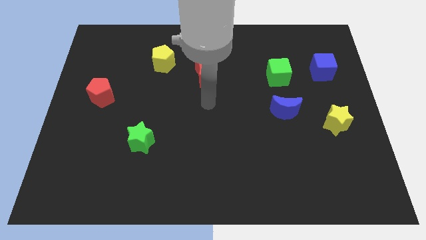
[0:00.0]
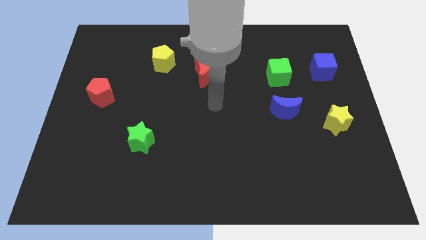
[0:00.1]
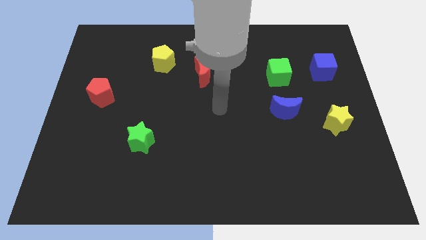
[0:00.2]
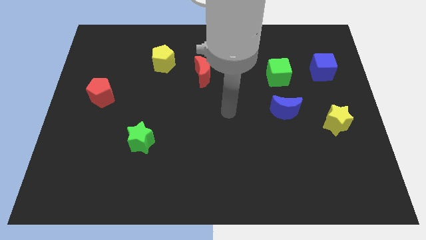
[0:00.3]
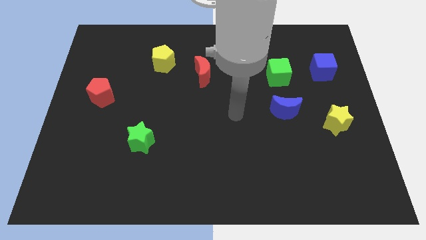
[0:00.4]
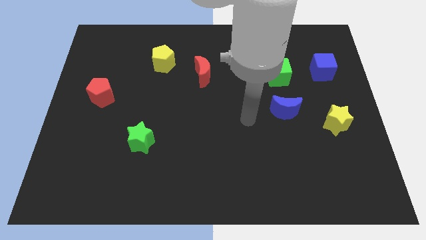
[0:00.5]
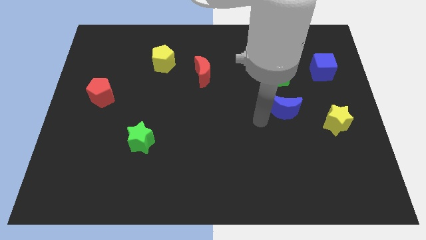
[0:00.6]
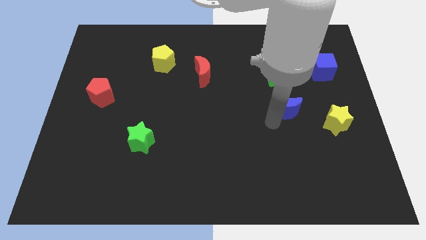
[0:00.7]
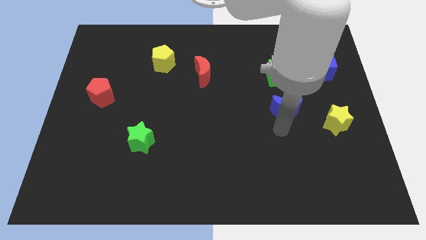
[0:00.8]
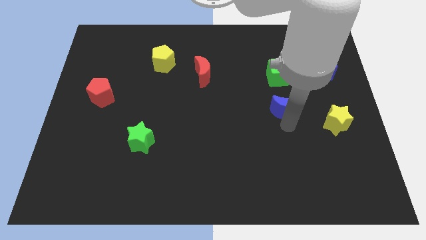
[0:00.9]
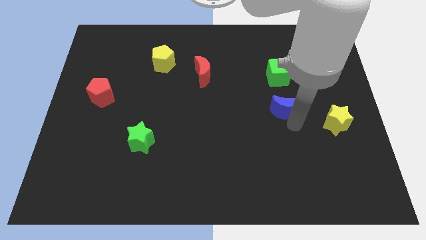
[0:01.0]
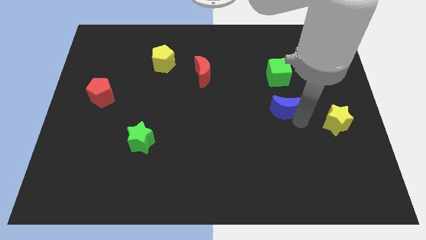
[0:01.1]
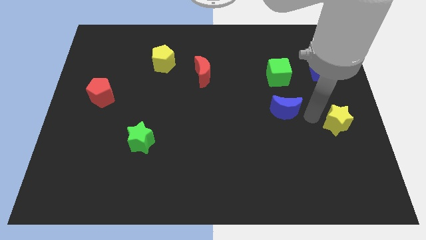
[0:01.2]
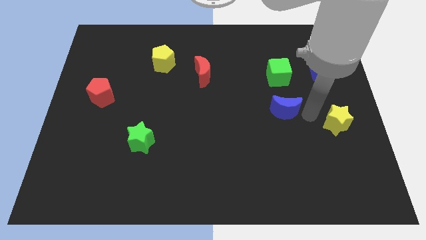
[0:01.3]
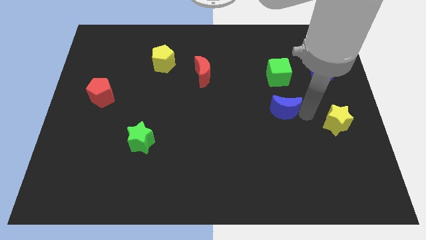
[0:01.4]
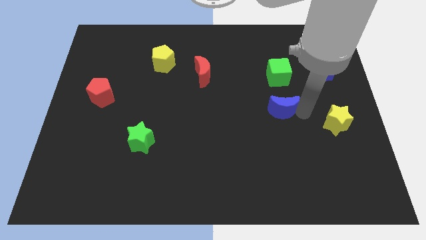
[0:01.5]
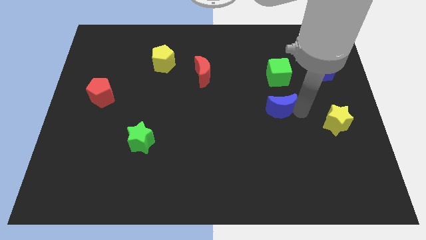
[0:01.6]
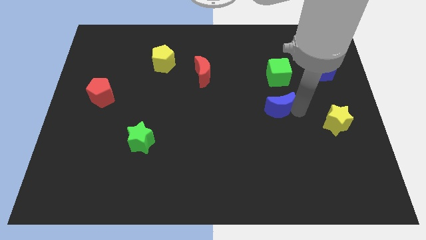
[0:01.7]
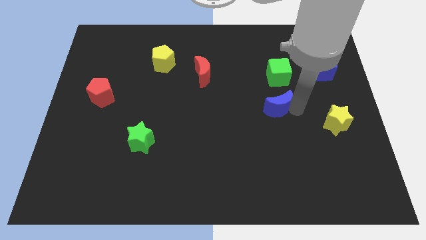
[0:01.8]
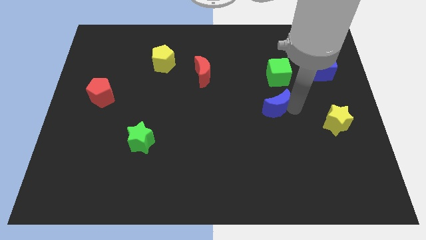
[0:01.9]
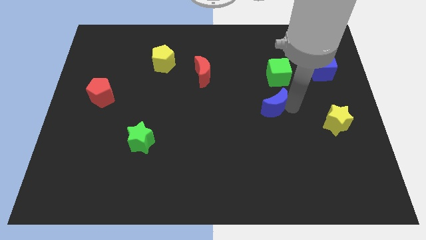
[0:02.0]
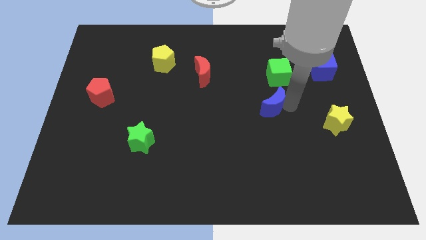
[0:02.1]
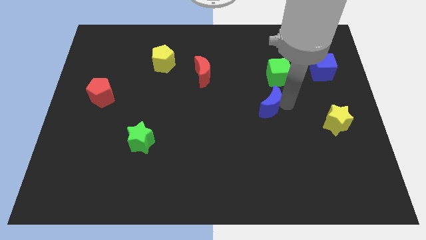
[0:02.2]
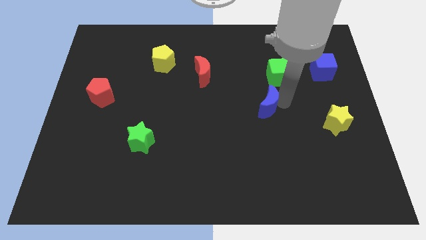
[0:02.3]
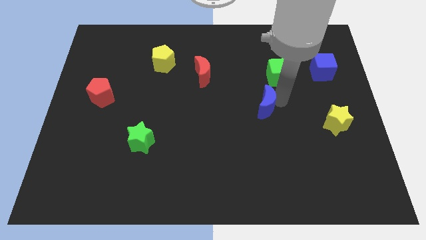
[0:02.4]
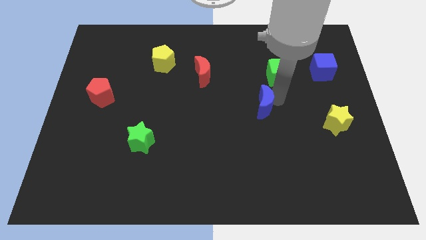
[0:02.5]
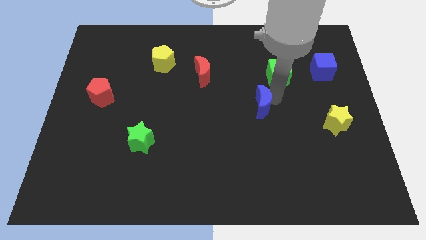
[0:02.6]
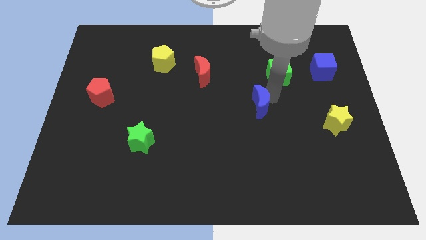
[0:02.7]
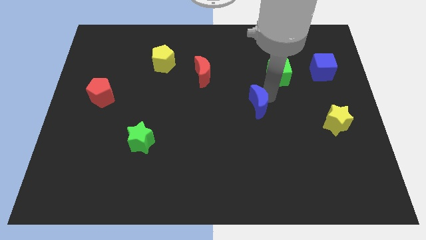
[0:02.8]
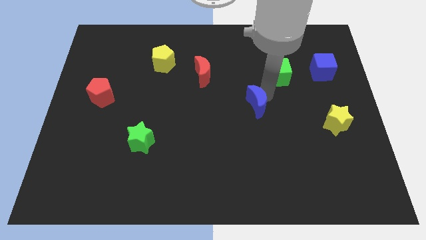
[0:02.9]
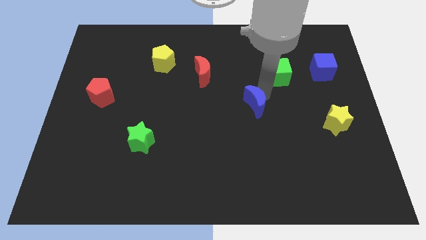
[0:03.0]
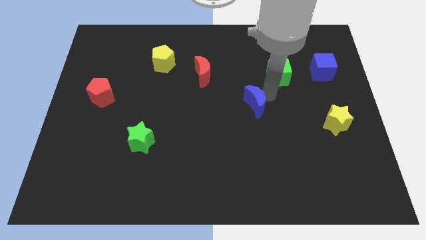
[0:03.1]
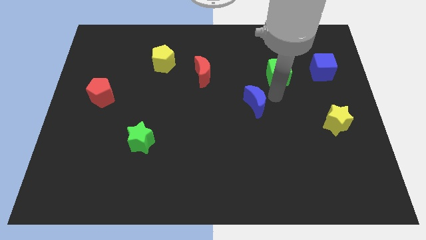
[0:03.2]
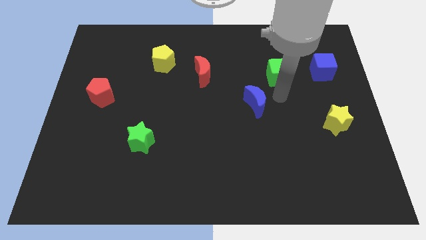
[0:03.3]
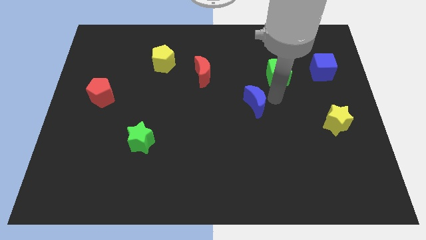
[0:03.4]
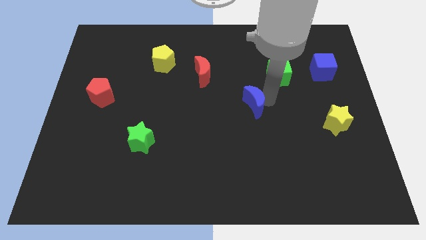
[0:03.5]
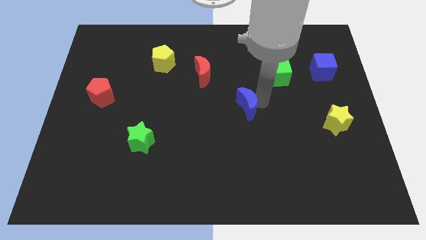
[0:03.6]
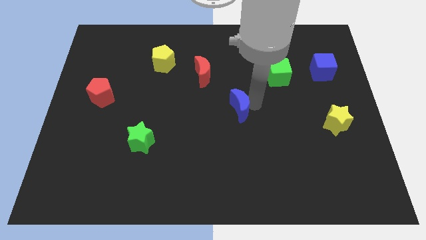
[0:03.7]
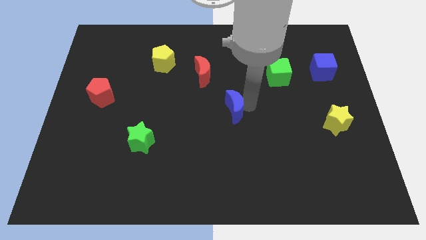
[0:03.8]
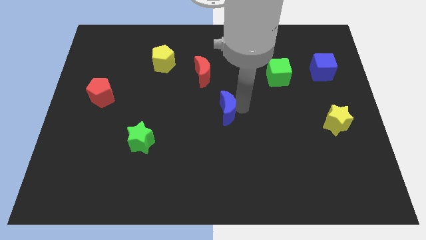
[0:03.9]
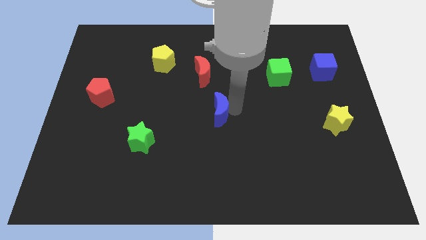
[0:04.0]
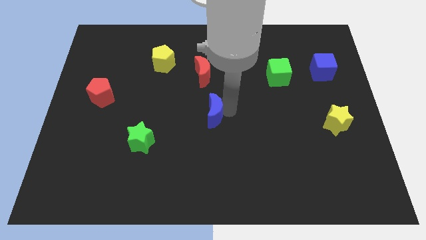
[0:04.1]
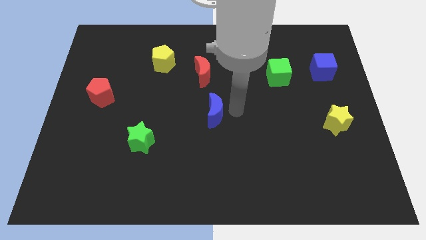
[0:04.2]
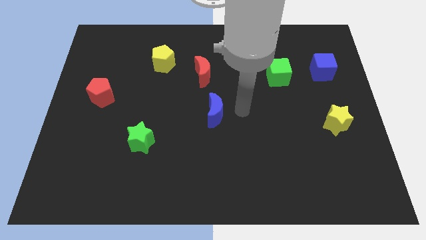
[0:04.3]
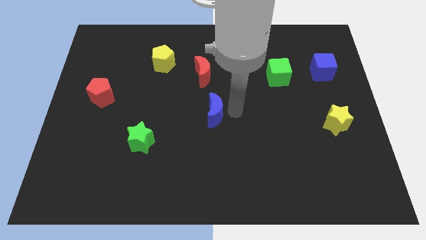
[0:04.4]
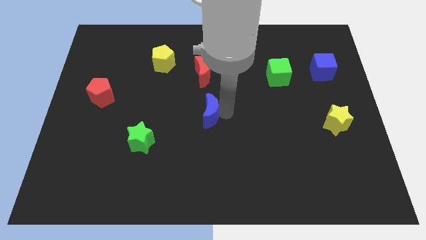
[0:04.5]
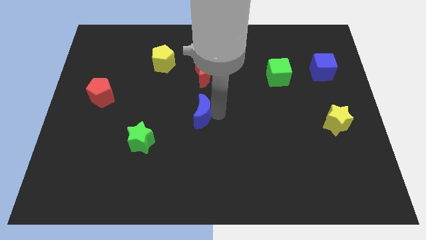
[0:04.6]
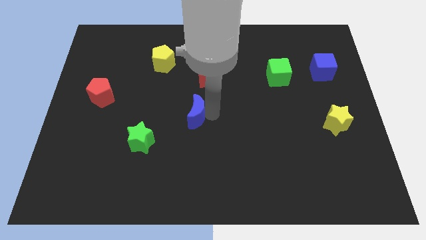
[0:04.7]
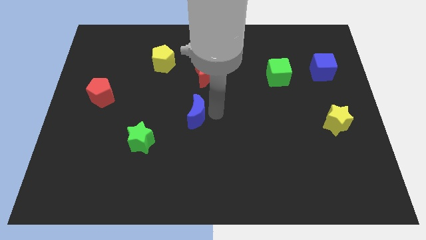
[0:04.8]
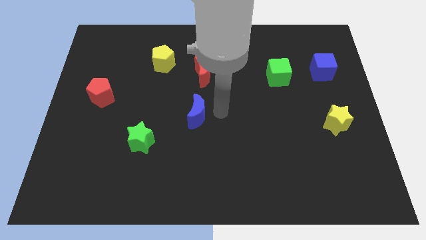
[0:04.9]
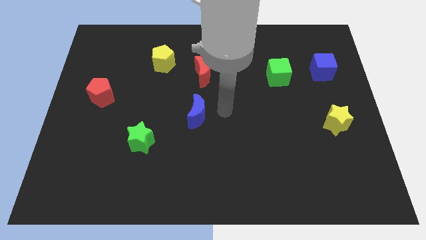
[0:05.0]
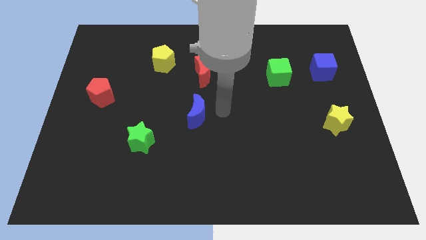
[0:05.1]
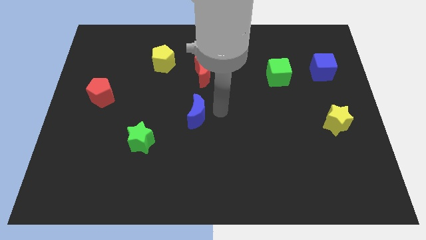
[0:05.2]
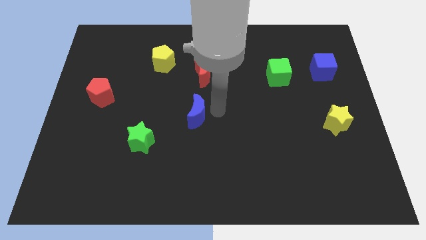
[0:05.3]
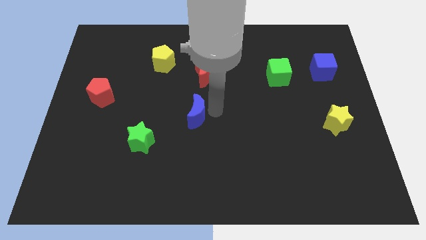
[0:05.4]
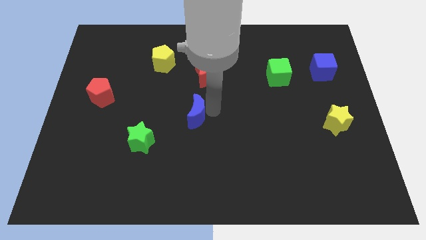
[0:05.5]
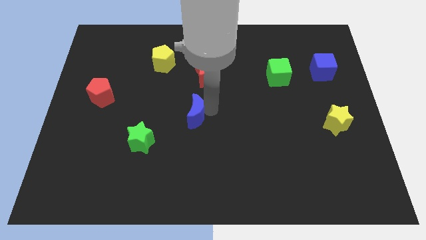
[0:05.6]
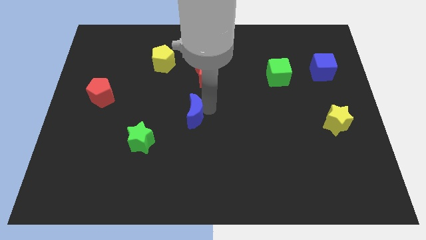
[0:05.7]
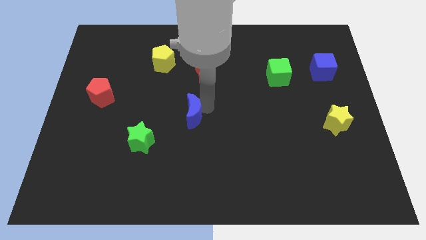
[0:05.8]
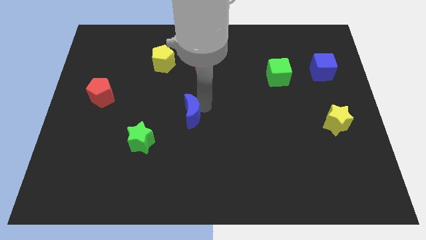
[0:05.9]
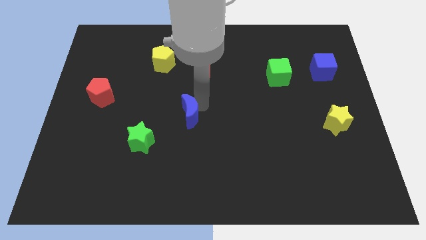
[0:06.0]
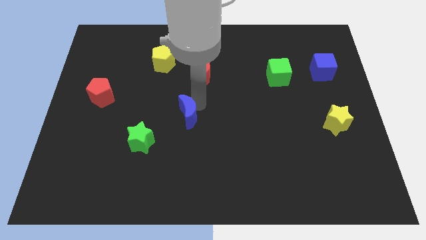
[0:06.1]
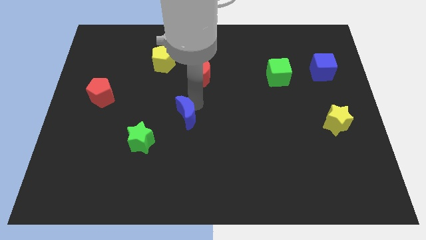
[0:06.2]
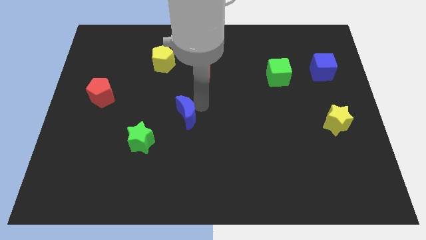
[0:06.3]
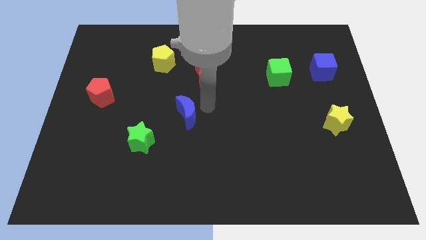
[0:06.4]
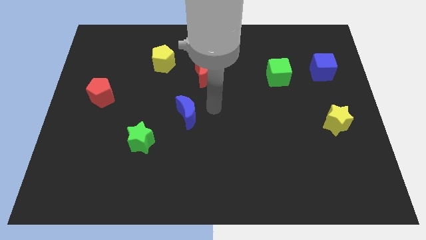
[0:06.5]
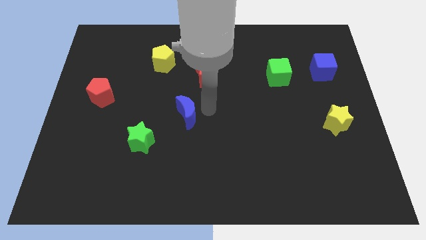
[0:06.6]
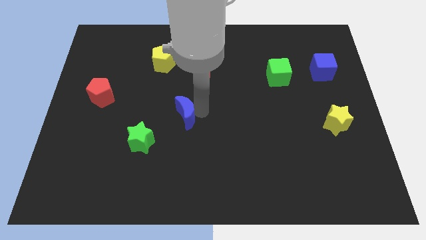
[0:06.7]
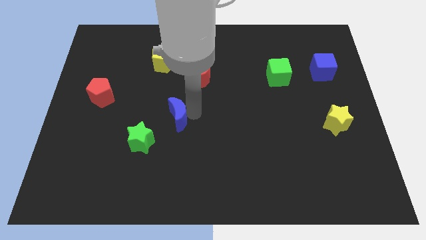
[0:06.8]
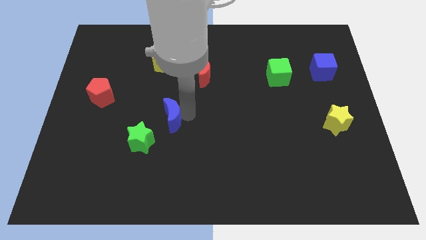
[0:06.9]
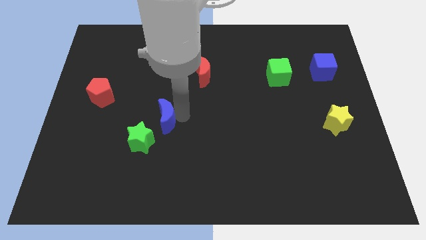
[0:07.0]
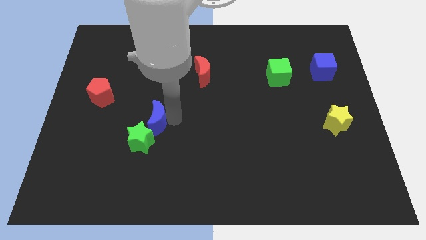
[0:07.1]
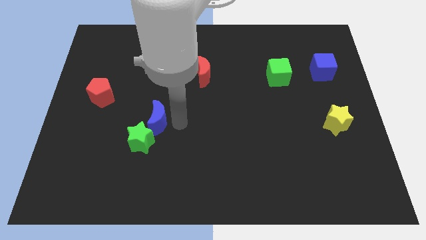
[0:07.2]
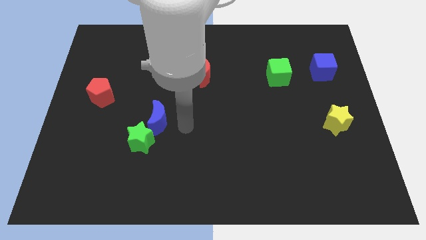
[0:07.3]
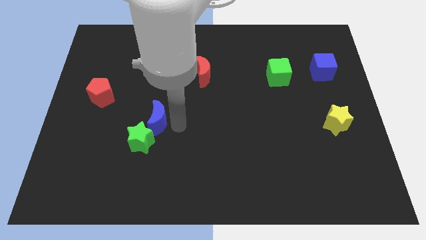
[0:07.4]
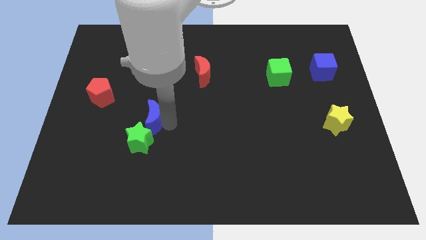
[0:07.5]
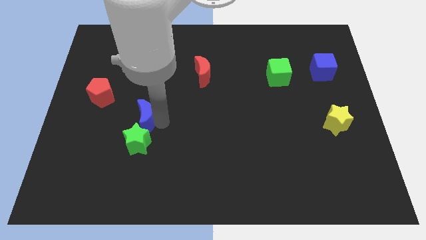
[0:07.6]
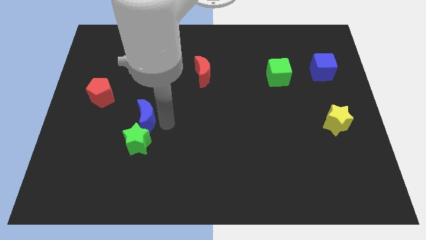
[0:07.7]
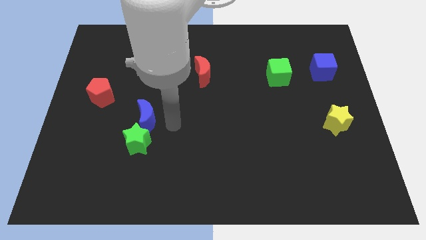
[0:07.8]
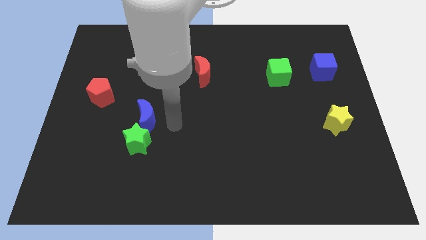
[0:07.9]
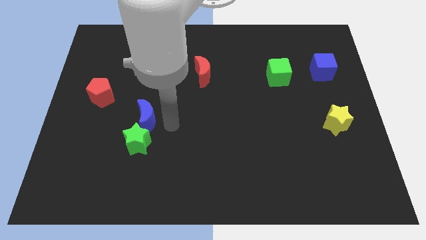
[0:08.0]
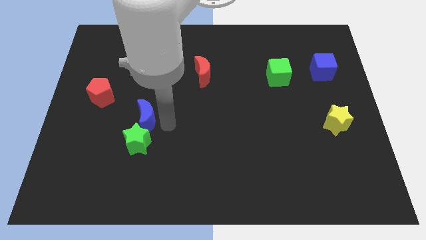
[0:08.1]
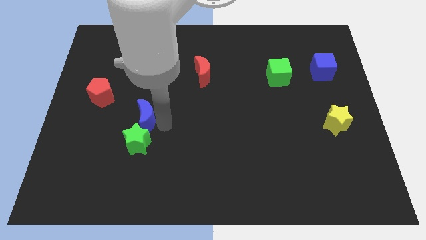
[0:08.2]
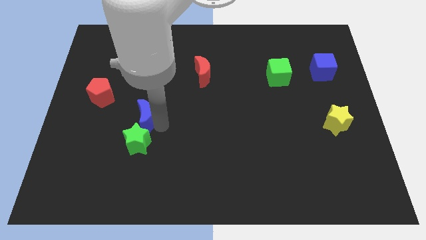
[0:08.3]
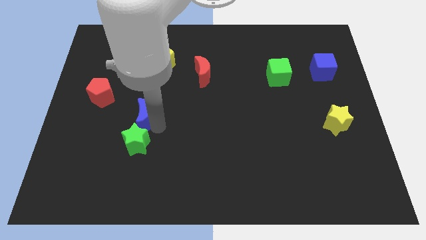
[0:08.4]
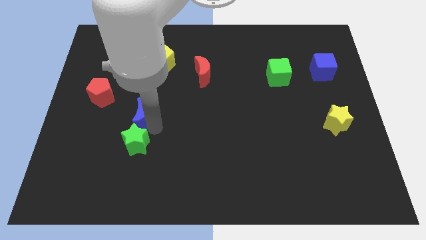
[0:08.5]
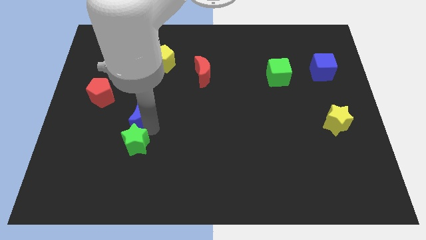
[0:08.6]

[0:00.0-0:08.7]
put the blue moon to the bottom right of the red pentagon
